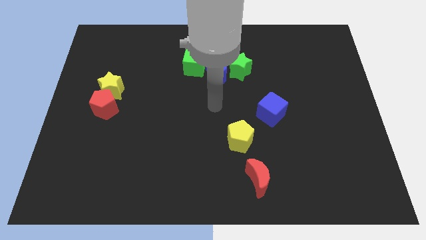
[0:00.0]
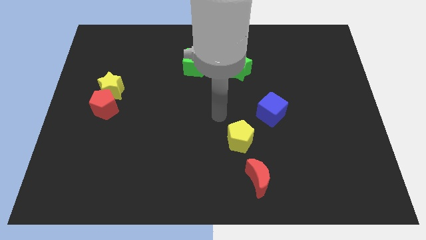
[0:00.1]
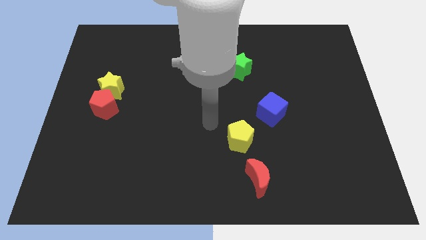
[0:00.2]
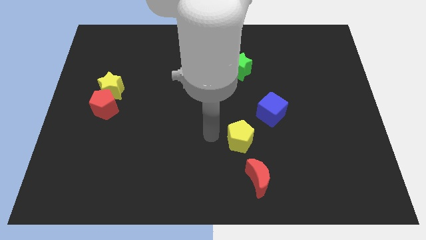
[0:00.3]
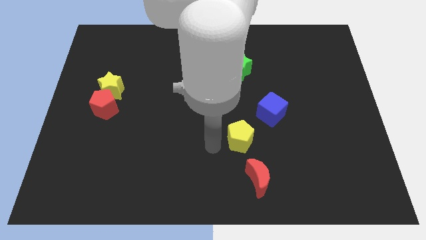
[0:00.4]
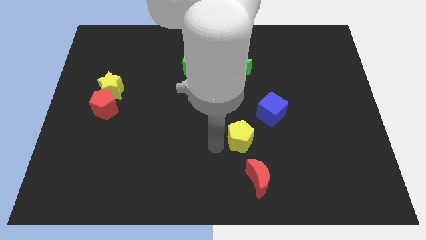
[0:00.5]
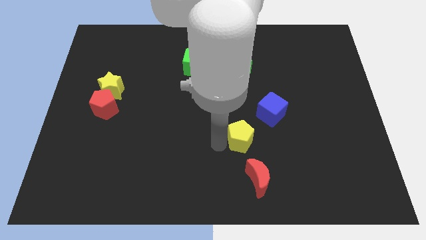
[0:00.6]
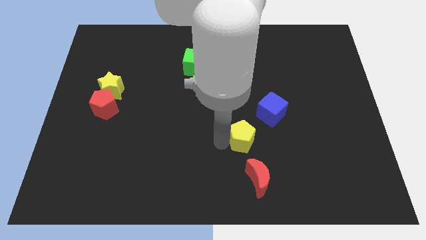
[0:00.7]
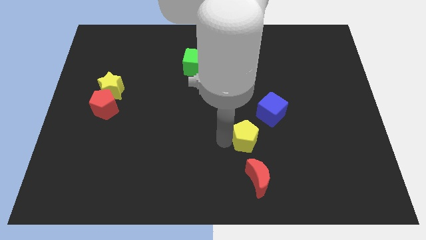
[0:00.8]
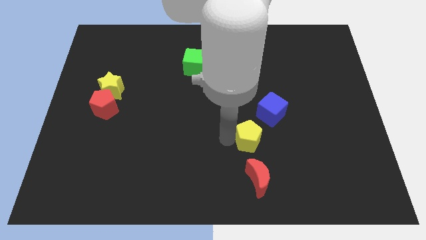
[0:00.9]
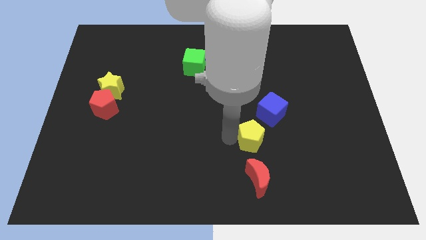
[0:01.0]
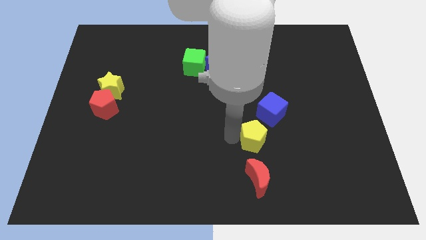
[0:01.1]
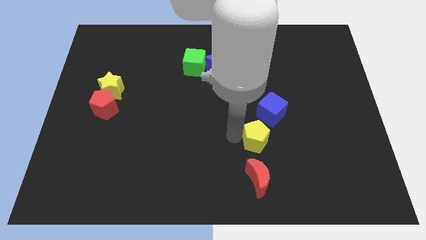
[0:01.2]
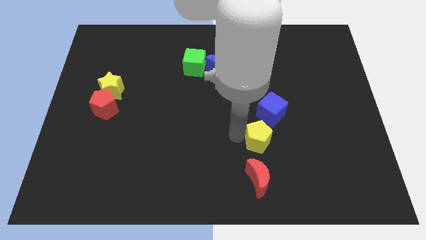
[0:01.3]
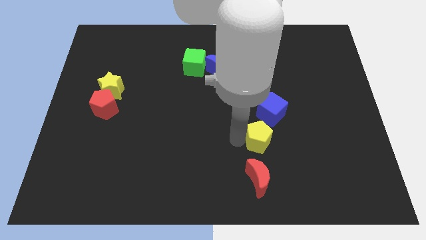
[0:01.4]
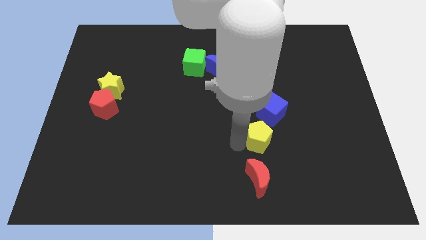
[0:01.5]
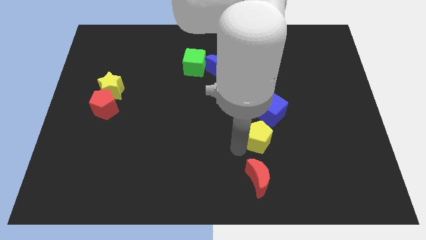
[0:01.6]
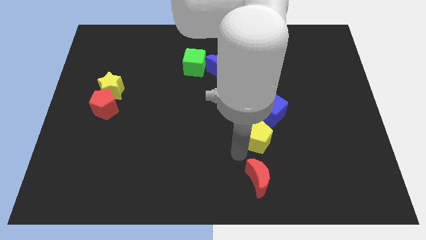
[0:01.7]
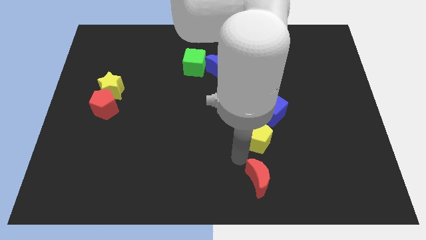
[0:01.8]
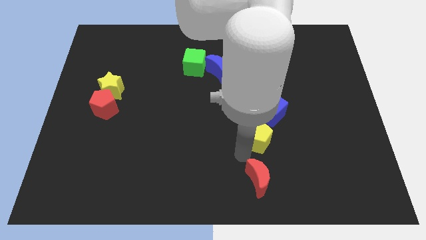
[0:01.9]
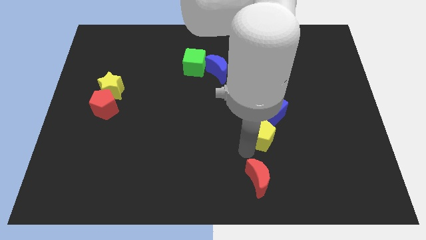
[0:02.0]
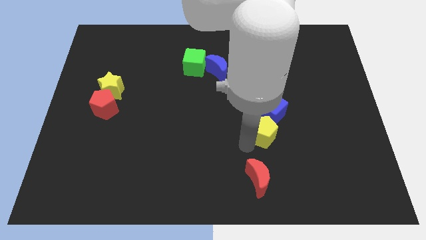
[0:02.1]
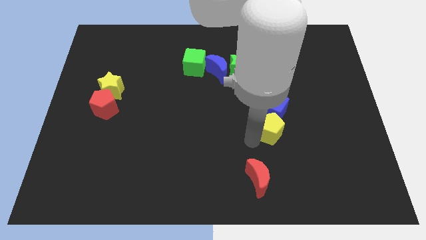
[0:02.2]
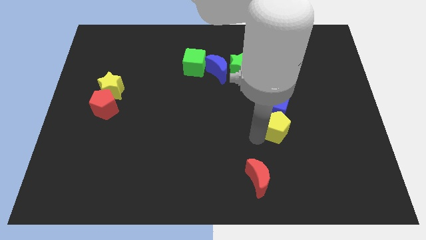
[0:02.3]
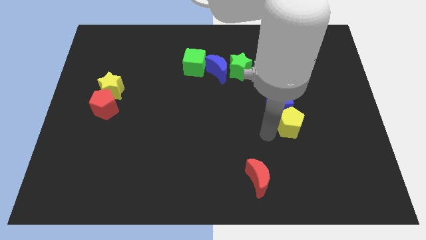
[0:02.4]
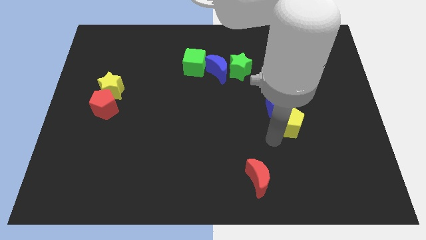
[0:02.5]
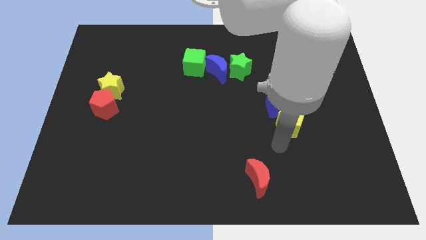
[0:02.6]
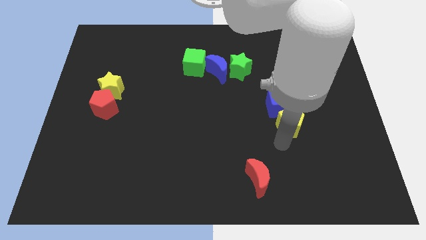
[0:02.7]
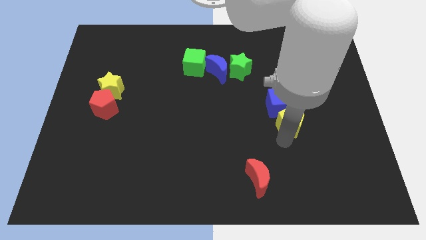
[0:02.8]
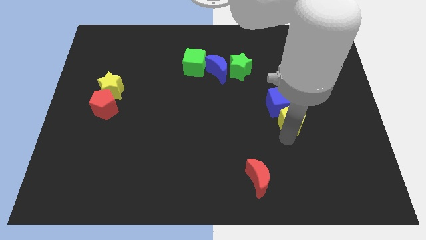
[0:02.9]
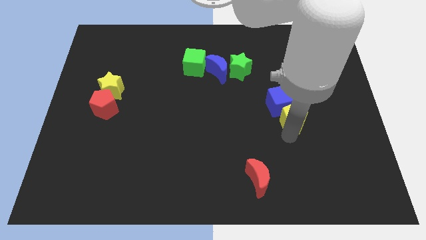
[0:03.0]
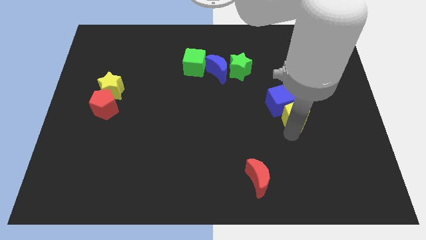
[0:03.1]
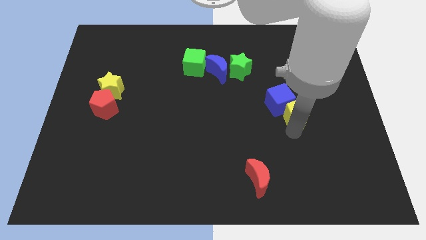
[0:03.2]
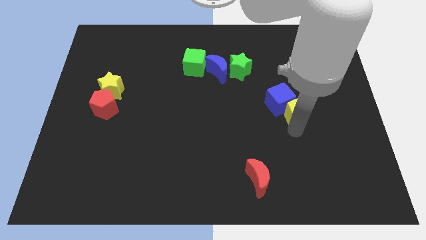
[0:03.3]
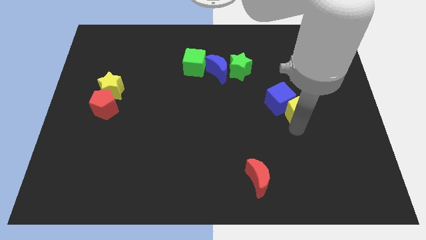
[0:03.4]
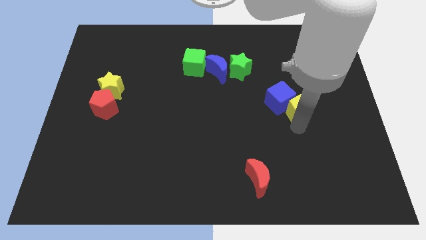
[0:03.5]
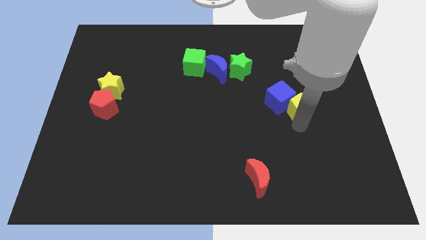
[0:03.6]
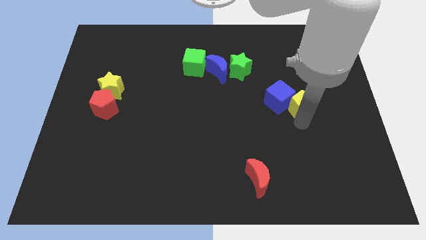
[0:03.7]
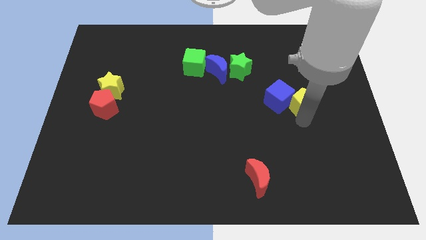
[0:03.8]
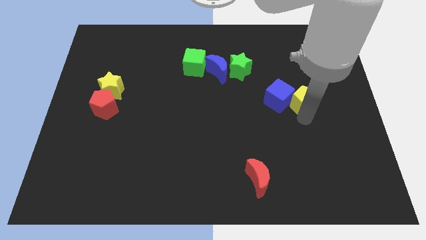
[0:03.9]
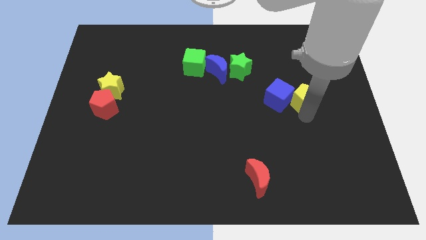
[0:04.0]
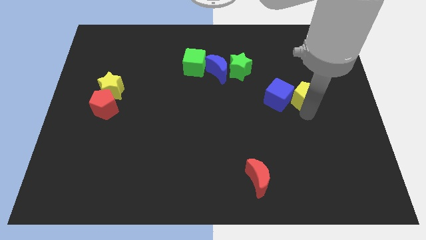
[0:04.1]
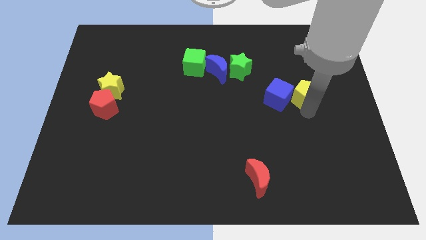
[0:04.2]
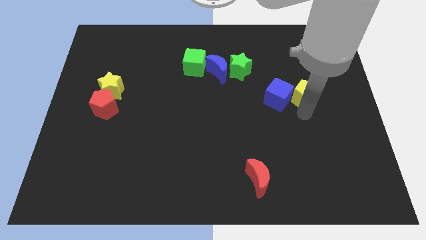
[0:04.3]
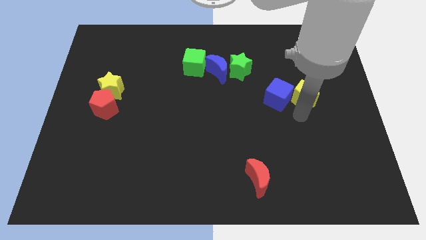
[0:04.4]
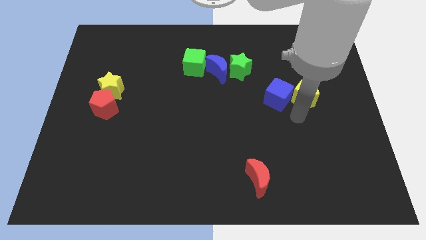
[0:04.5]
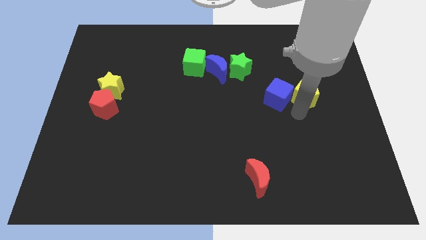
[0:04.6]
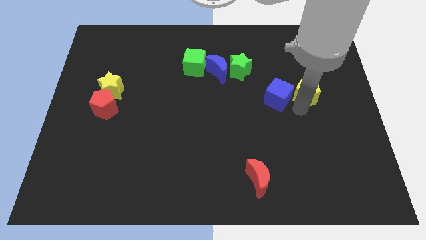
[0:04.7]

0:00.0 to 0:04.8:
slide the yellow pentagon up and right diagonally

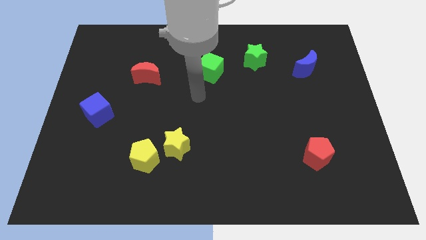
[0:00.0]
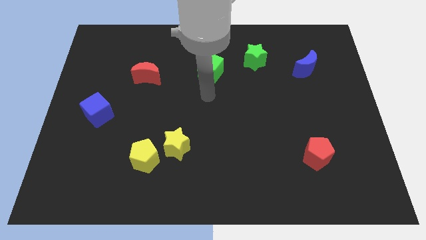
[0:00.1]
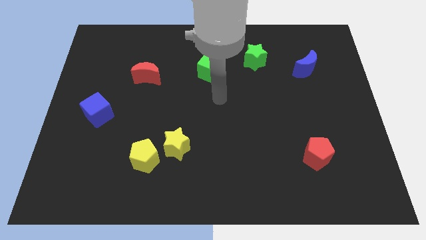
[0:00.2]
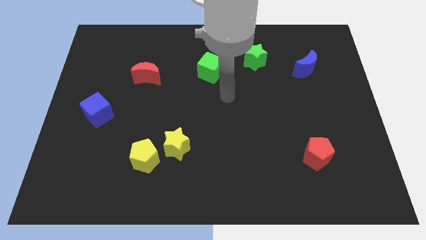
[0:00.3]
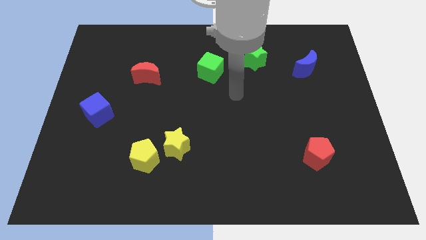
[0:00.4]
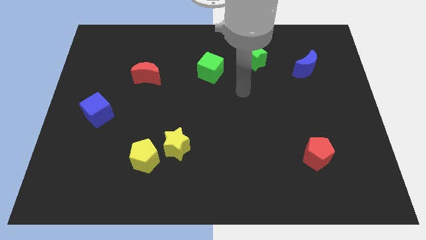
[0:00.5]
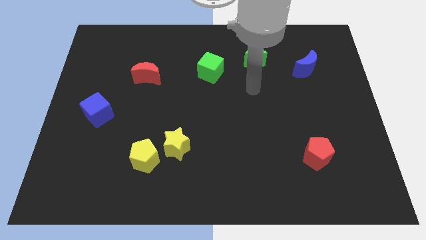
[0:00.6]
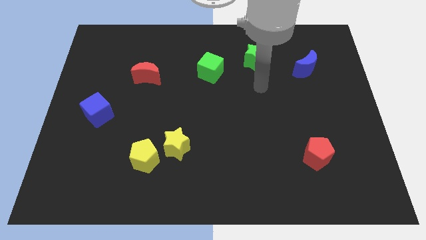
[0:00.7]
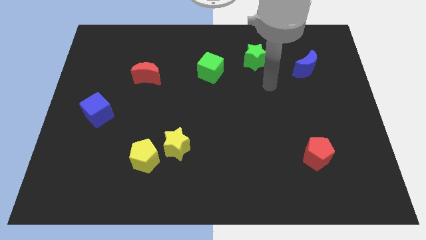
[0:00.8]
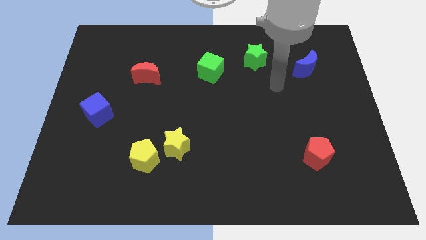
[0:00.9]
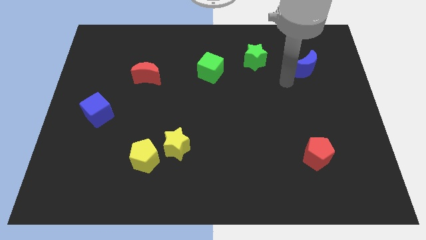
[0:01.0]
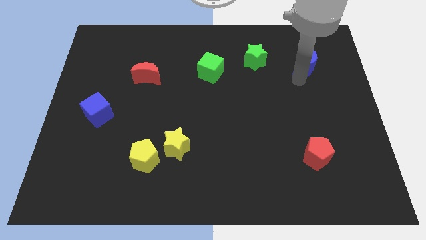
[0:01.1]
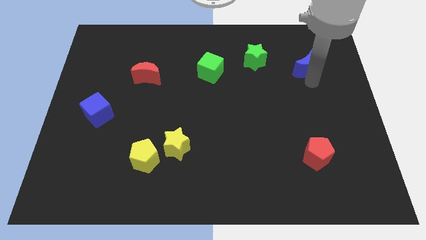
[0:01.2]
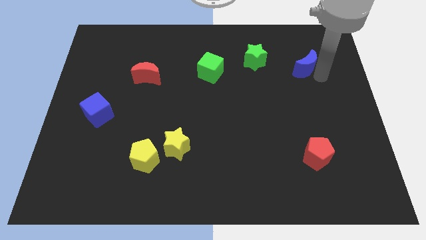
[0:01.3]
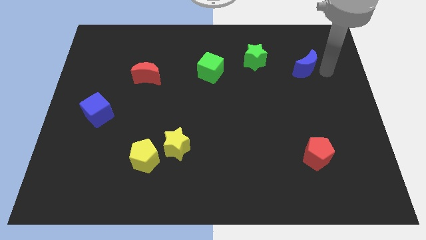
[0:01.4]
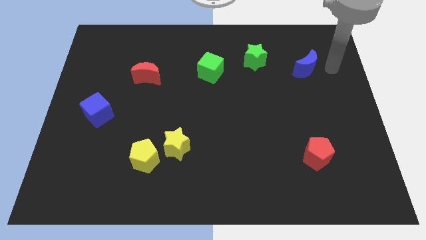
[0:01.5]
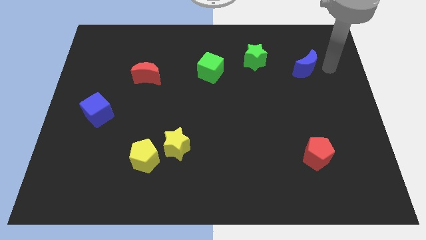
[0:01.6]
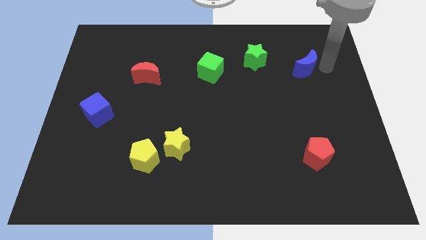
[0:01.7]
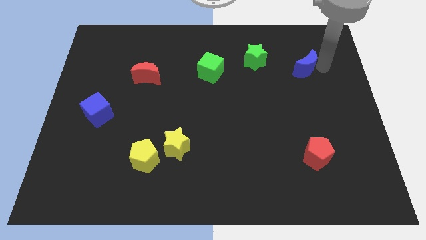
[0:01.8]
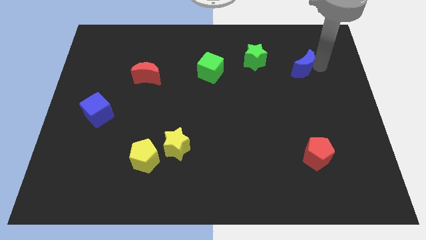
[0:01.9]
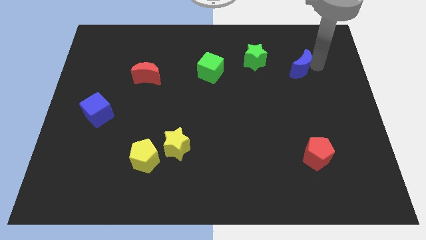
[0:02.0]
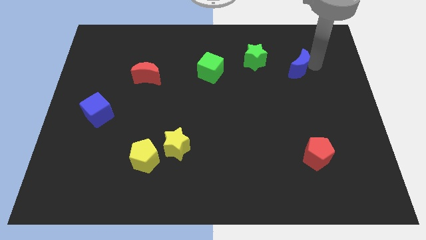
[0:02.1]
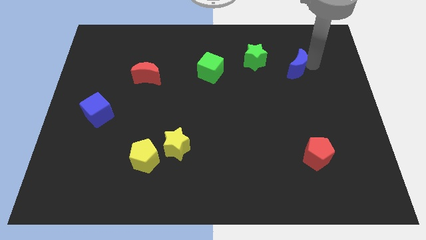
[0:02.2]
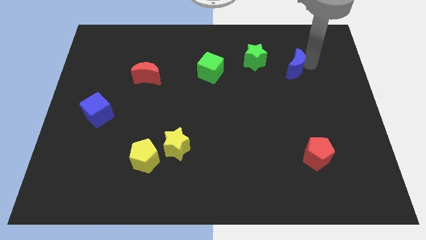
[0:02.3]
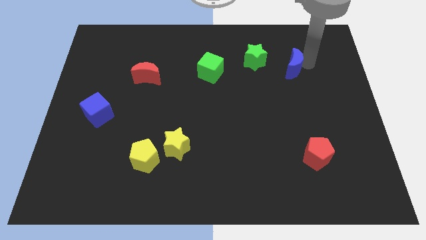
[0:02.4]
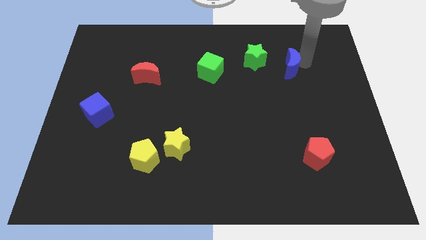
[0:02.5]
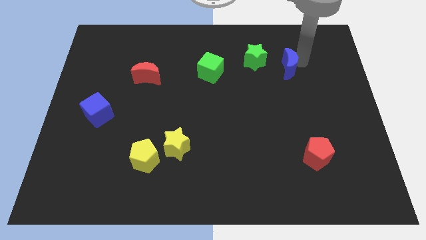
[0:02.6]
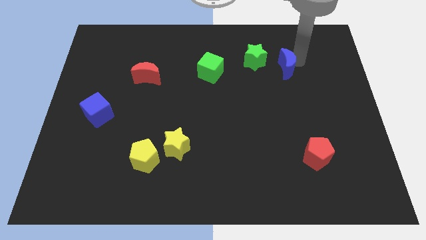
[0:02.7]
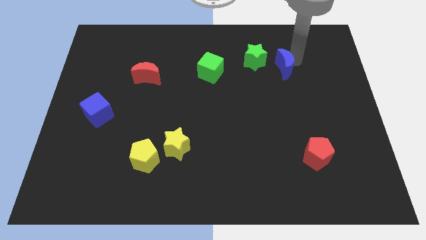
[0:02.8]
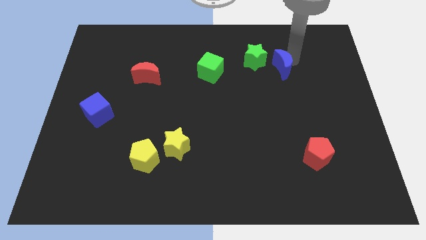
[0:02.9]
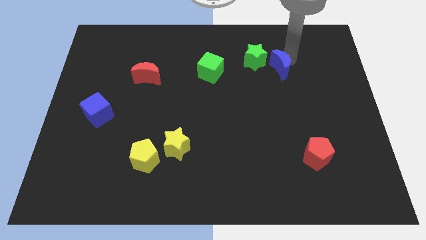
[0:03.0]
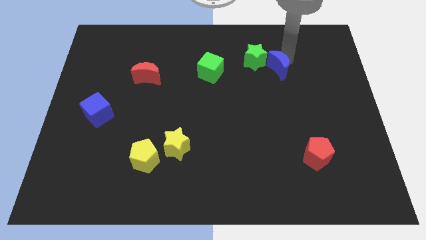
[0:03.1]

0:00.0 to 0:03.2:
move the blue moon left somewhat
